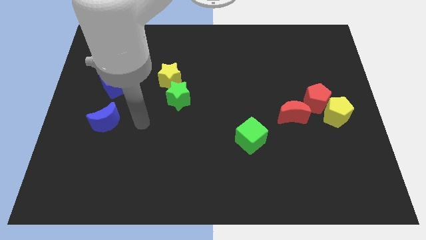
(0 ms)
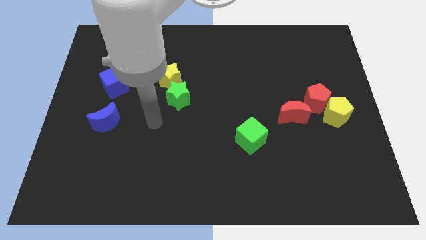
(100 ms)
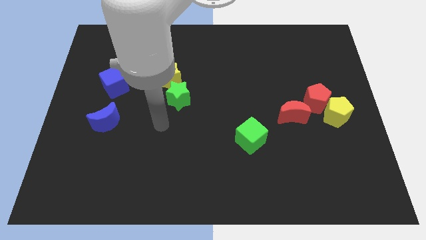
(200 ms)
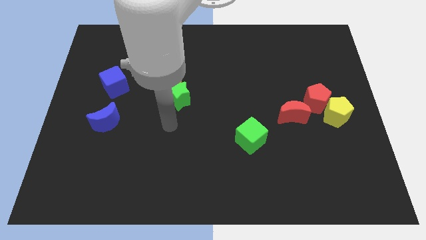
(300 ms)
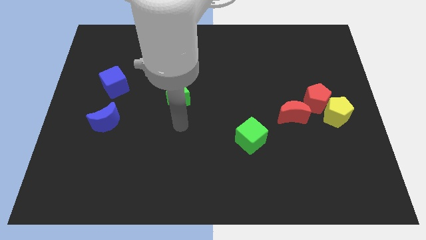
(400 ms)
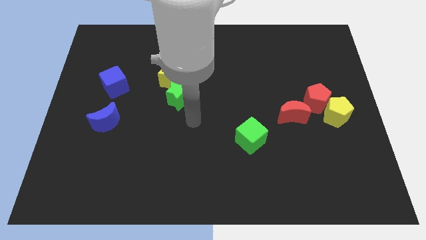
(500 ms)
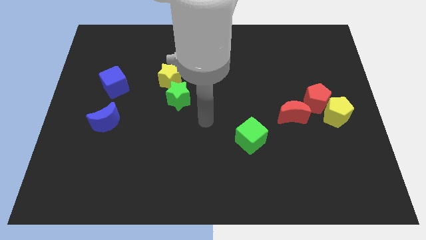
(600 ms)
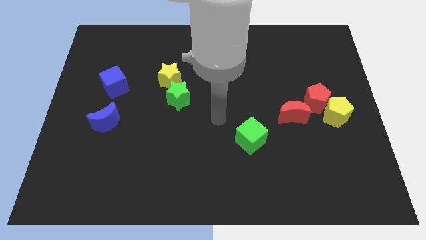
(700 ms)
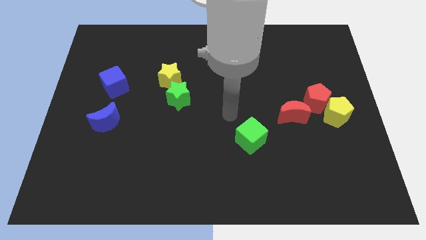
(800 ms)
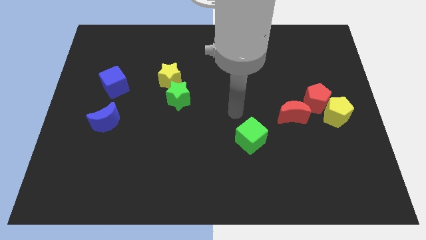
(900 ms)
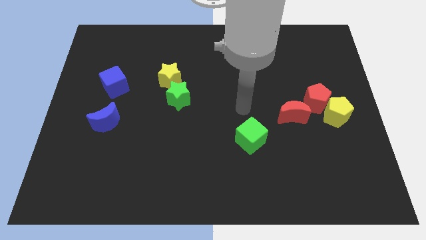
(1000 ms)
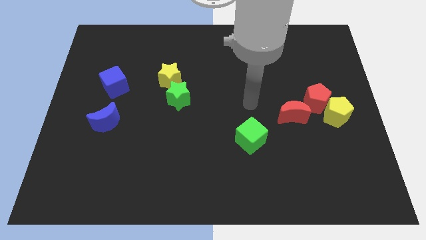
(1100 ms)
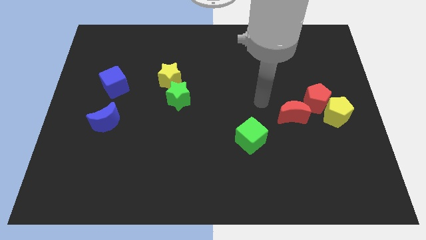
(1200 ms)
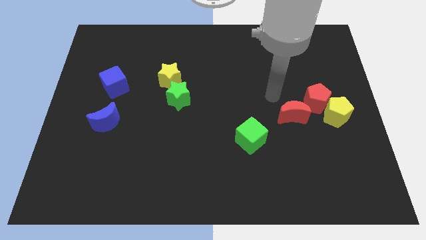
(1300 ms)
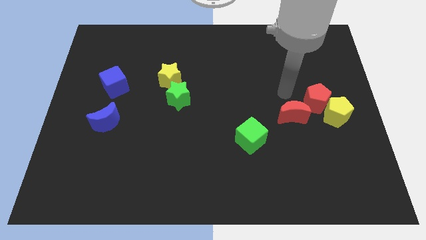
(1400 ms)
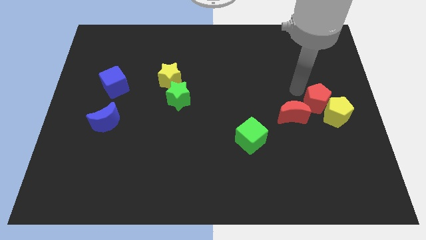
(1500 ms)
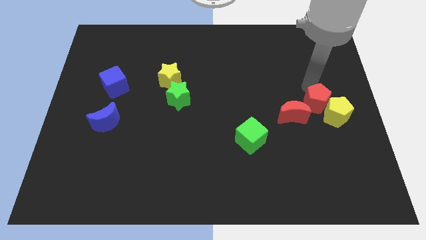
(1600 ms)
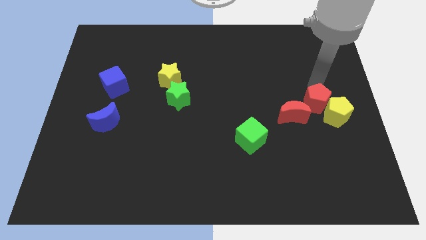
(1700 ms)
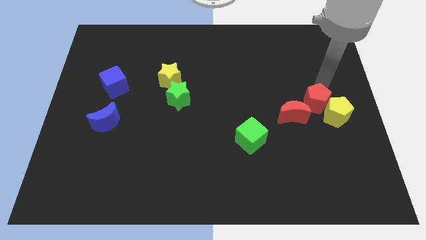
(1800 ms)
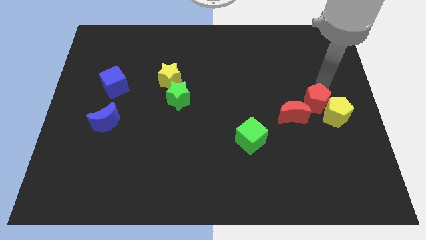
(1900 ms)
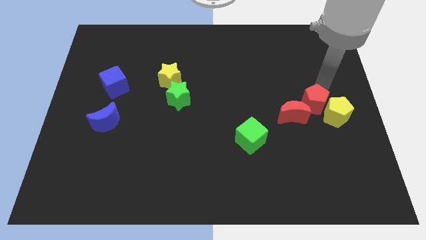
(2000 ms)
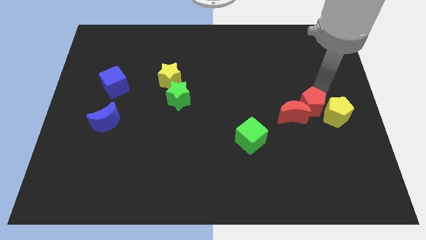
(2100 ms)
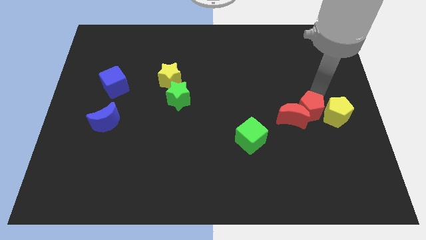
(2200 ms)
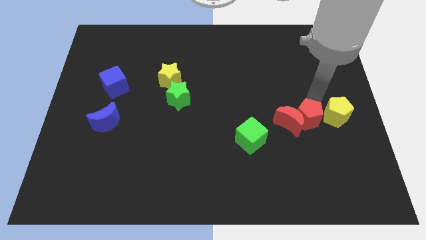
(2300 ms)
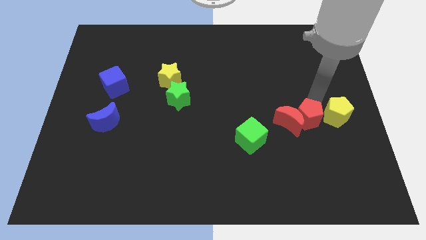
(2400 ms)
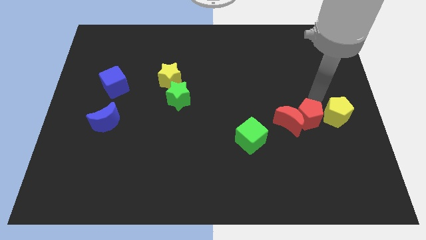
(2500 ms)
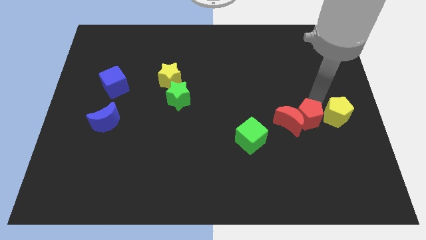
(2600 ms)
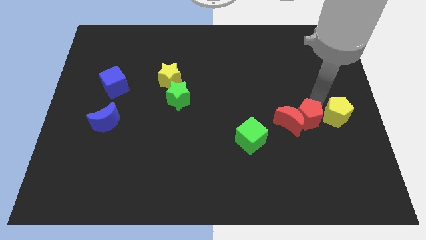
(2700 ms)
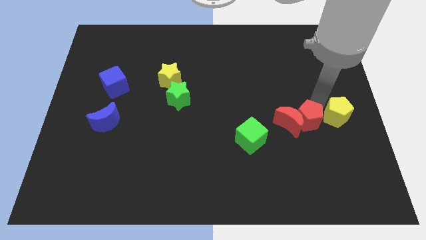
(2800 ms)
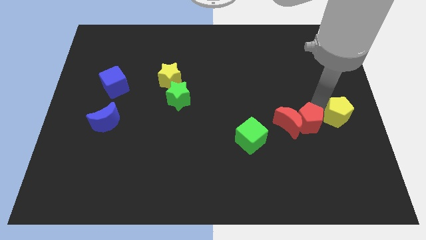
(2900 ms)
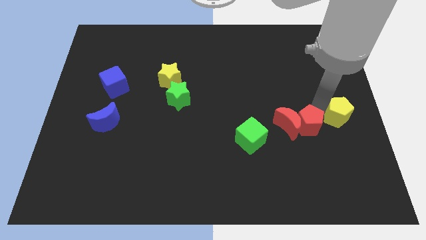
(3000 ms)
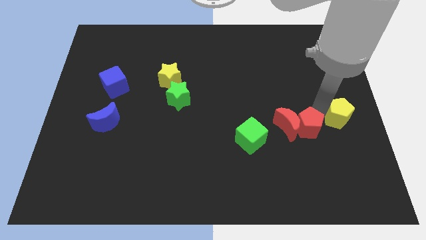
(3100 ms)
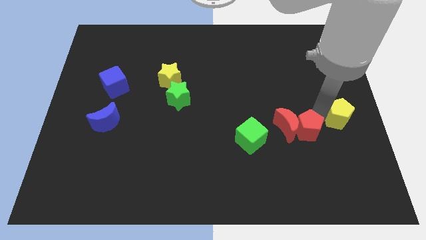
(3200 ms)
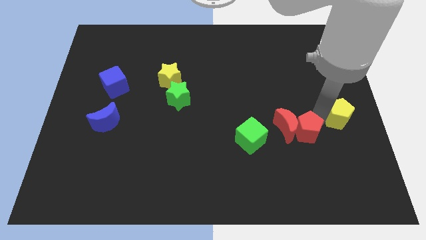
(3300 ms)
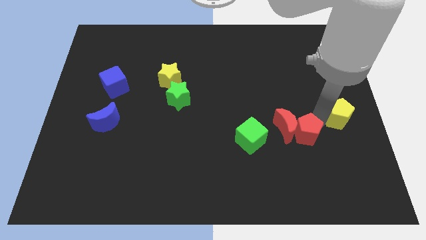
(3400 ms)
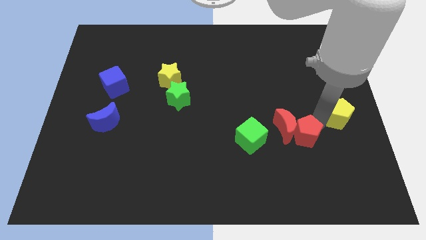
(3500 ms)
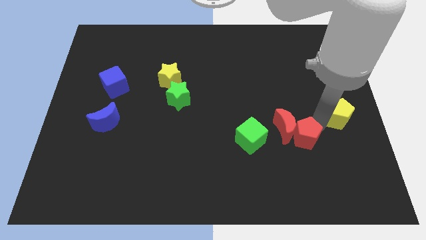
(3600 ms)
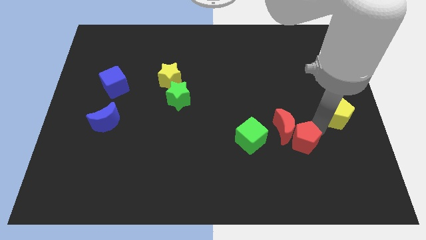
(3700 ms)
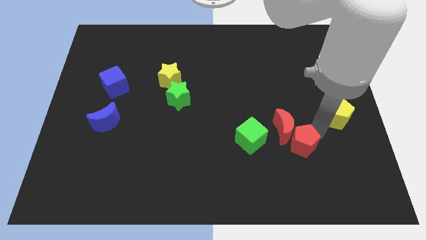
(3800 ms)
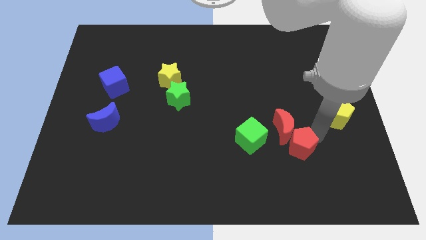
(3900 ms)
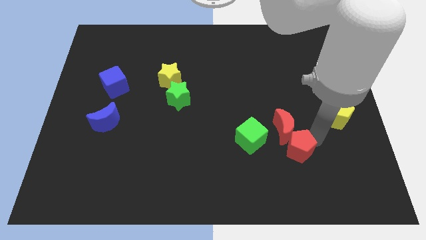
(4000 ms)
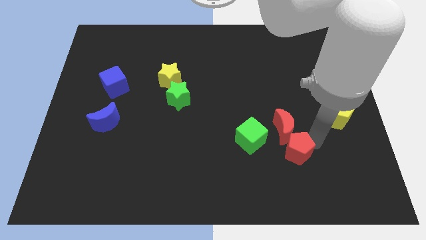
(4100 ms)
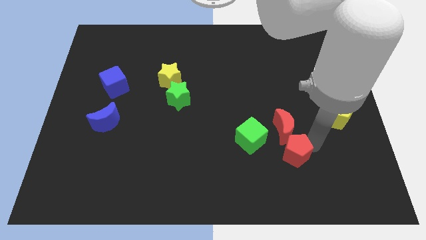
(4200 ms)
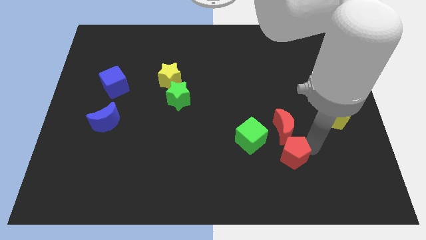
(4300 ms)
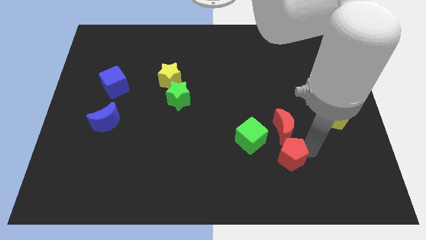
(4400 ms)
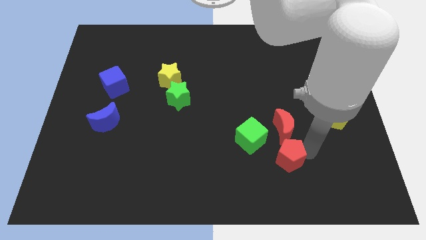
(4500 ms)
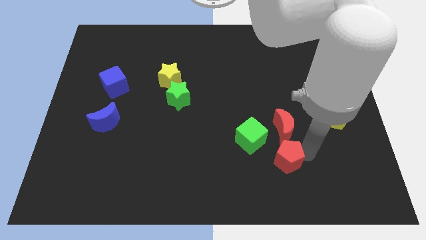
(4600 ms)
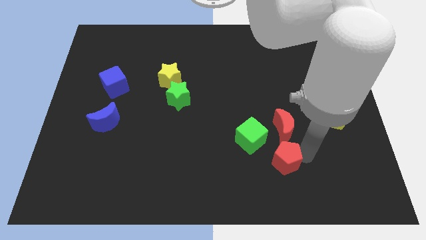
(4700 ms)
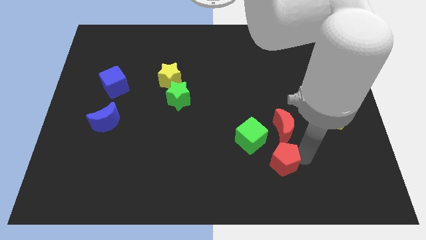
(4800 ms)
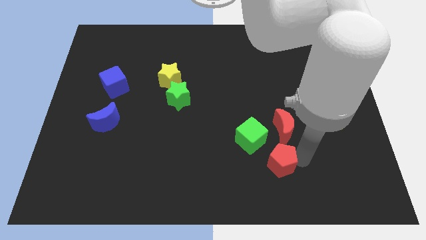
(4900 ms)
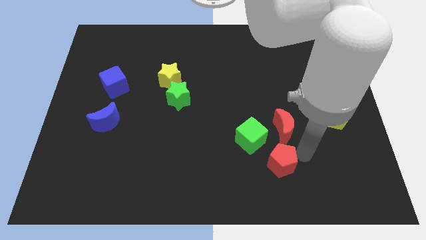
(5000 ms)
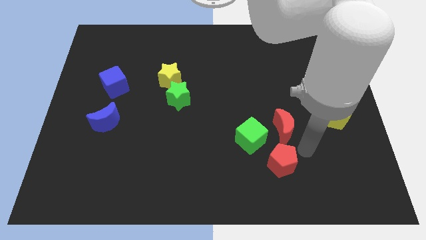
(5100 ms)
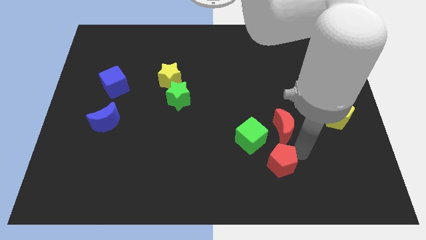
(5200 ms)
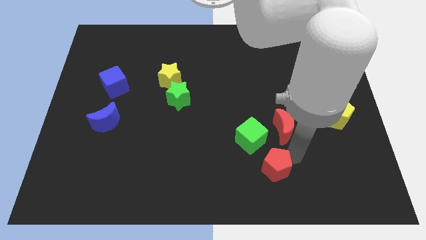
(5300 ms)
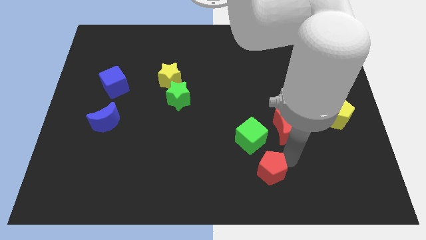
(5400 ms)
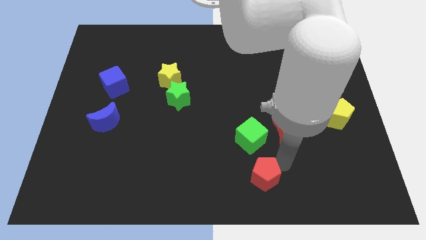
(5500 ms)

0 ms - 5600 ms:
put the red pentagon to the bottom

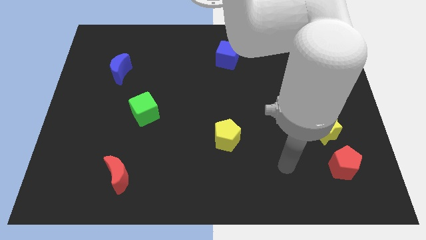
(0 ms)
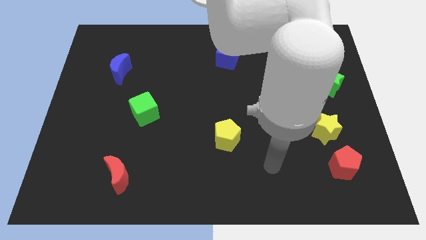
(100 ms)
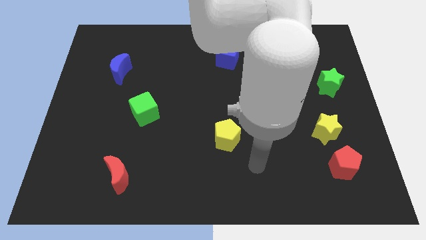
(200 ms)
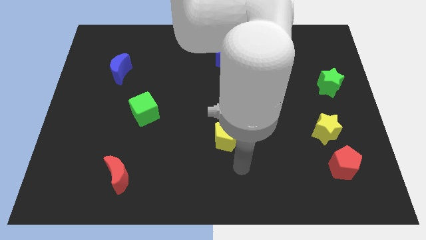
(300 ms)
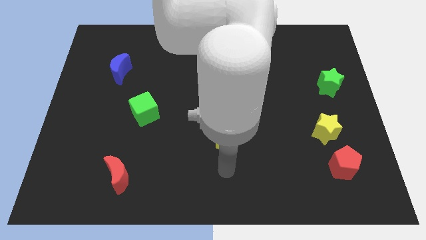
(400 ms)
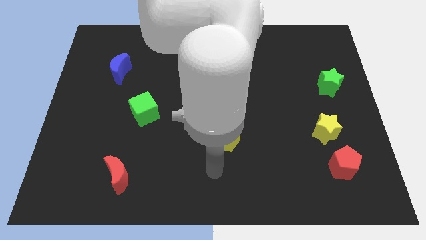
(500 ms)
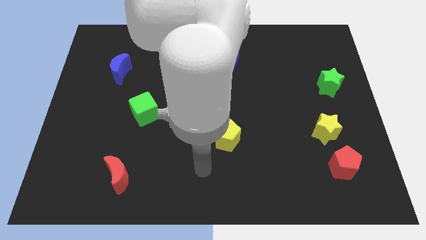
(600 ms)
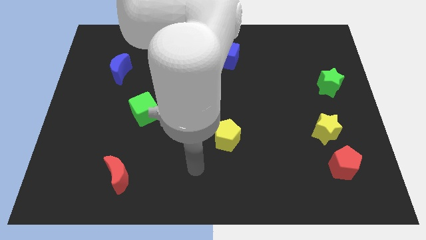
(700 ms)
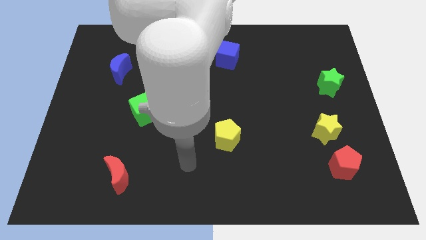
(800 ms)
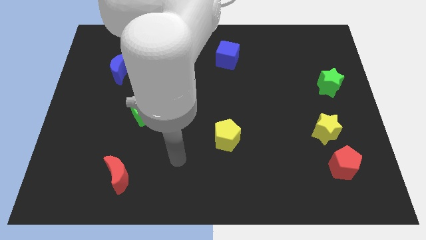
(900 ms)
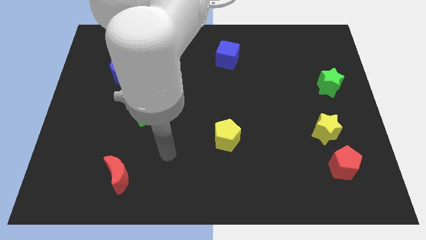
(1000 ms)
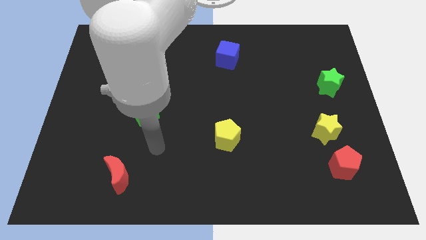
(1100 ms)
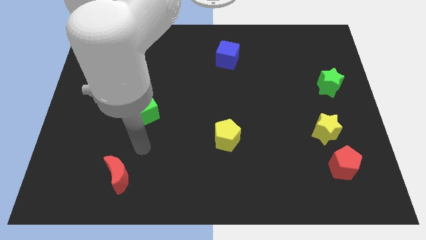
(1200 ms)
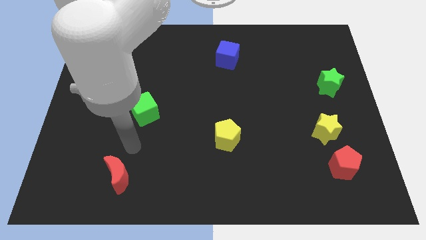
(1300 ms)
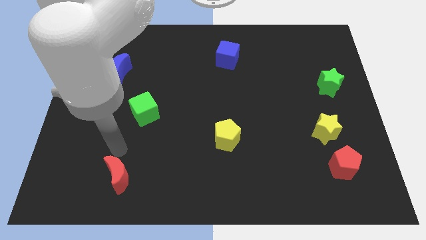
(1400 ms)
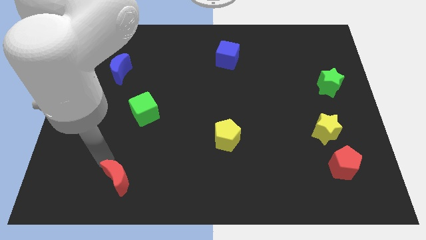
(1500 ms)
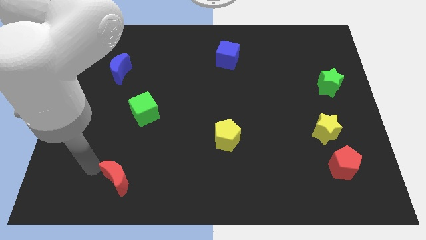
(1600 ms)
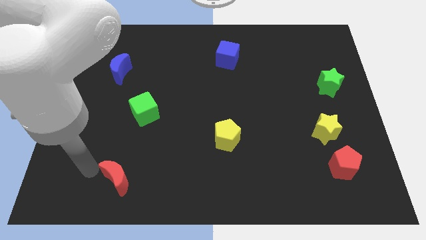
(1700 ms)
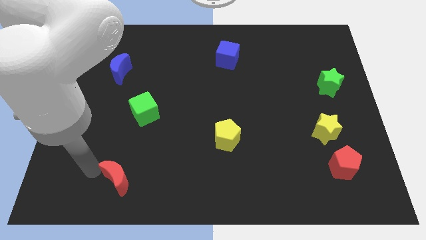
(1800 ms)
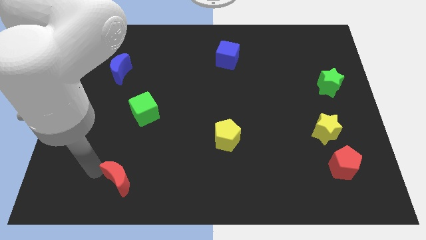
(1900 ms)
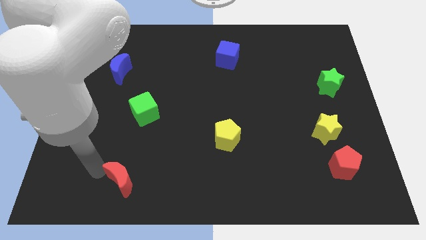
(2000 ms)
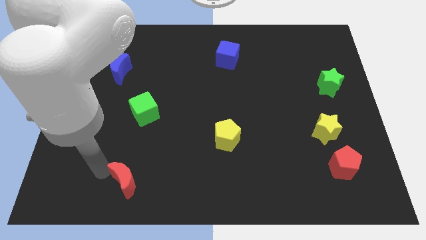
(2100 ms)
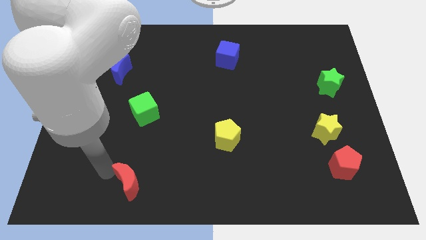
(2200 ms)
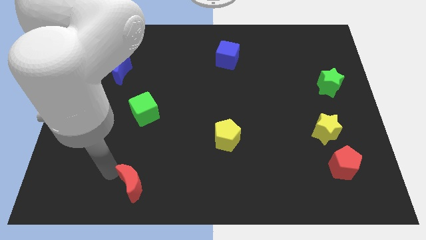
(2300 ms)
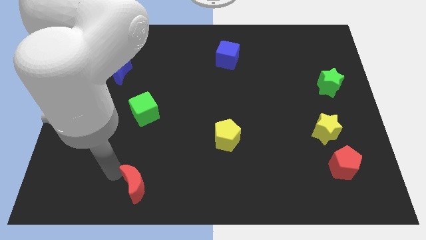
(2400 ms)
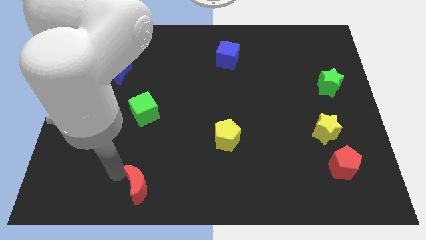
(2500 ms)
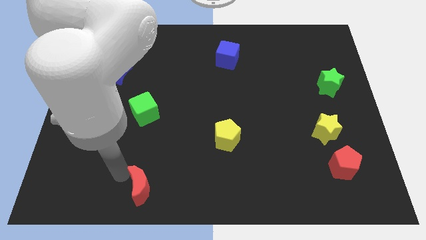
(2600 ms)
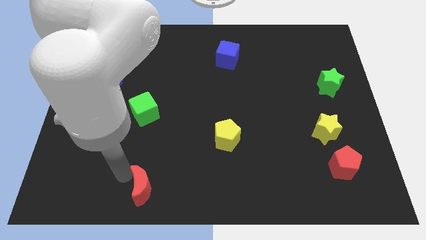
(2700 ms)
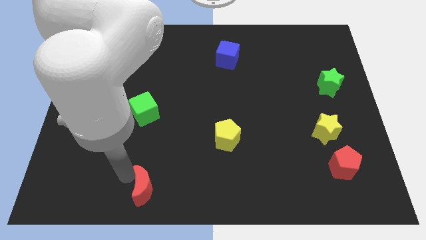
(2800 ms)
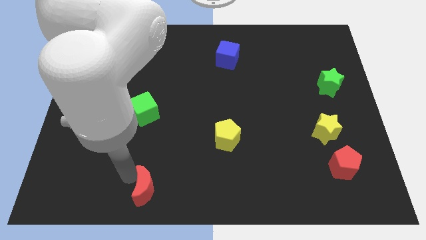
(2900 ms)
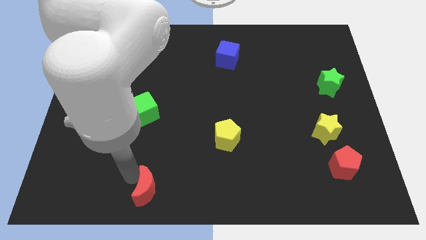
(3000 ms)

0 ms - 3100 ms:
slide the red moon to the bottom side
